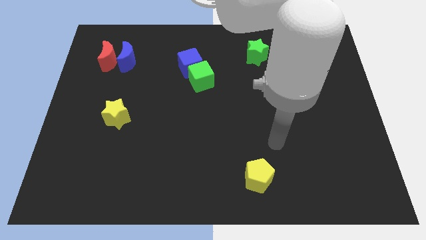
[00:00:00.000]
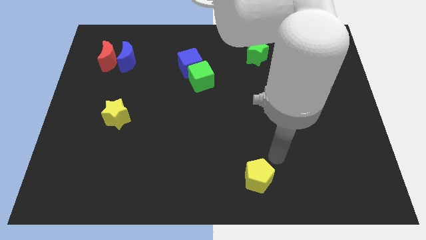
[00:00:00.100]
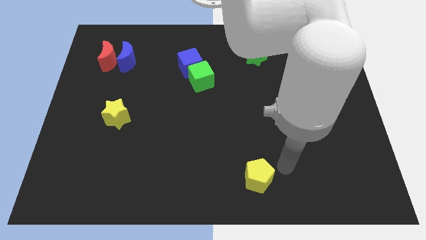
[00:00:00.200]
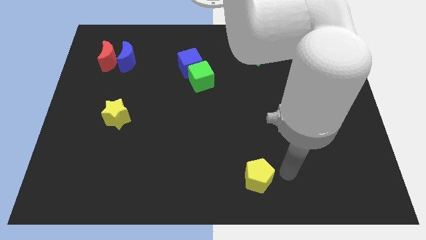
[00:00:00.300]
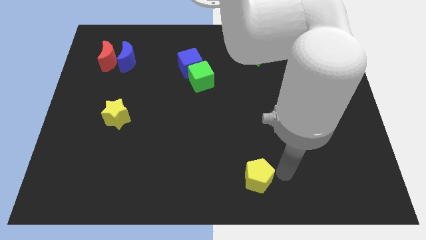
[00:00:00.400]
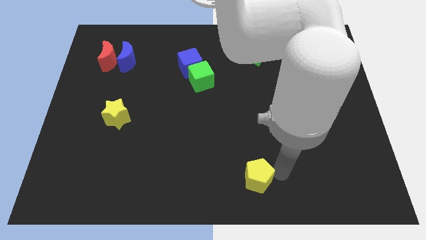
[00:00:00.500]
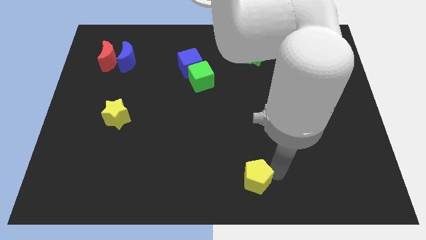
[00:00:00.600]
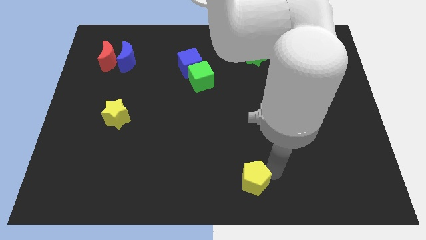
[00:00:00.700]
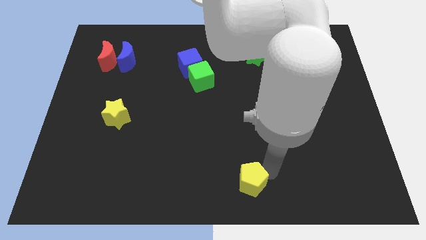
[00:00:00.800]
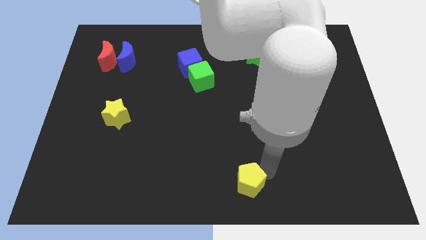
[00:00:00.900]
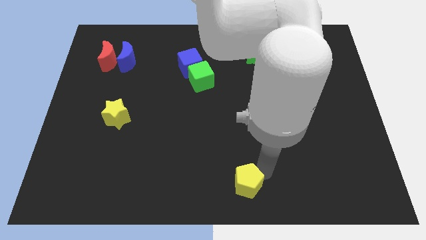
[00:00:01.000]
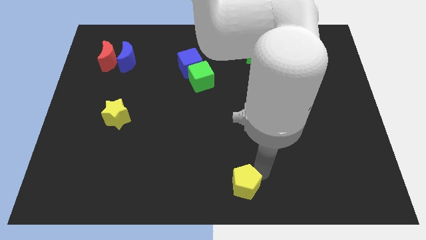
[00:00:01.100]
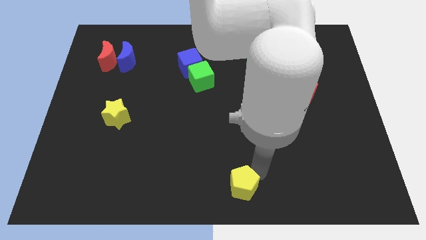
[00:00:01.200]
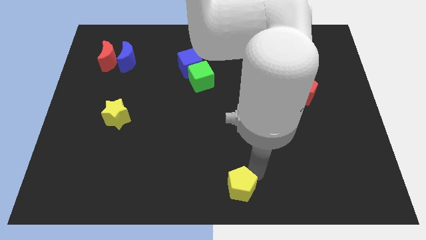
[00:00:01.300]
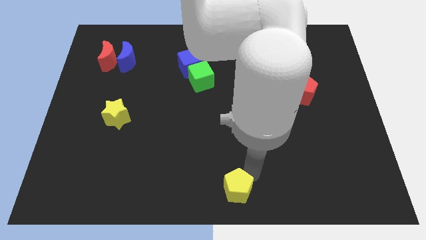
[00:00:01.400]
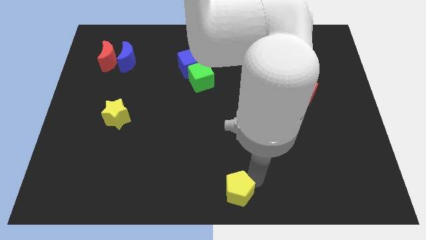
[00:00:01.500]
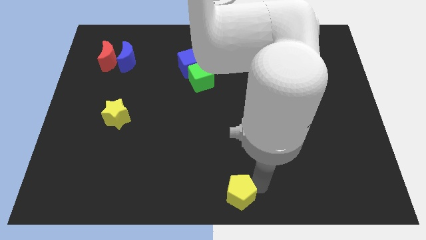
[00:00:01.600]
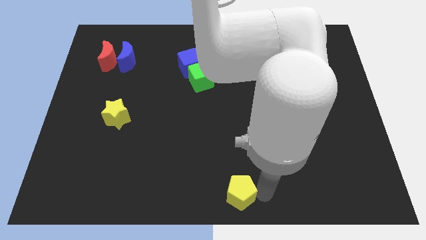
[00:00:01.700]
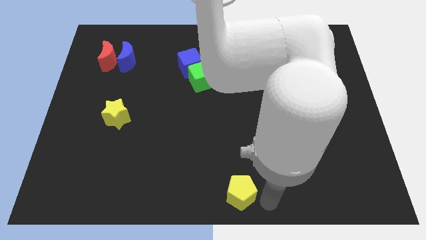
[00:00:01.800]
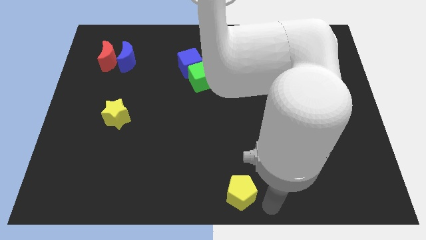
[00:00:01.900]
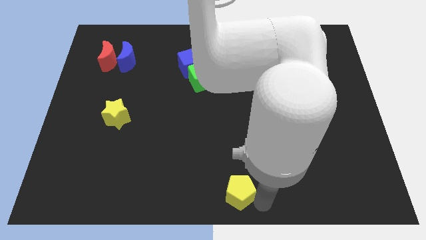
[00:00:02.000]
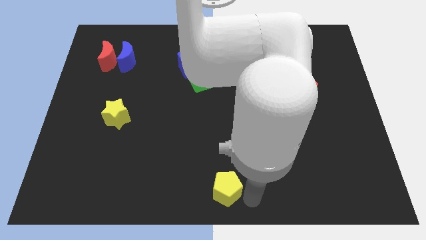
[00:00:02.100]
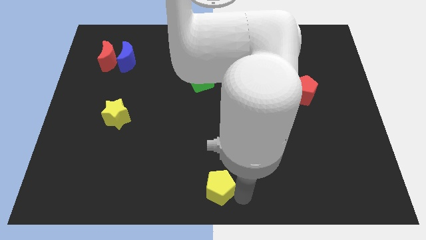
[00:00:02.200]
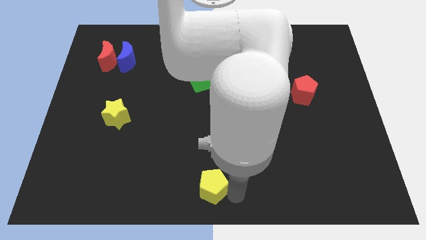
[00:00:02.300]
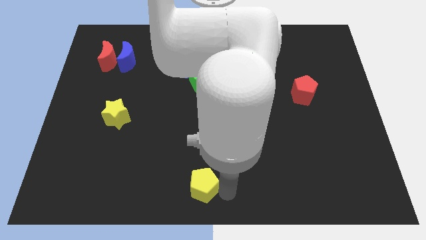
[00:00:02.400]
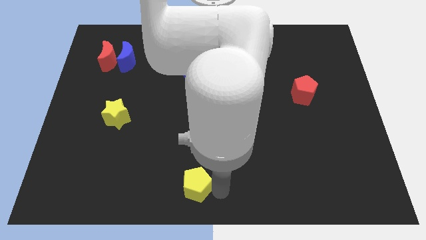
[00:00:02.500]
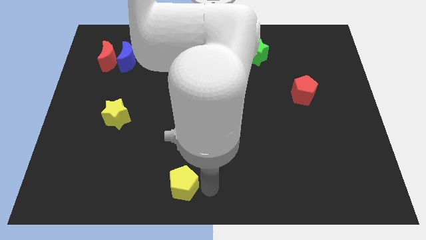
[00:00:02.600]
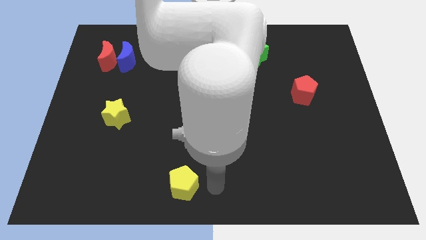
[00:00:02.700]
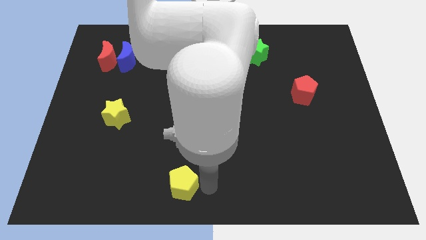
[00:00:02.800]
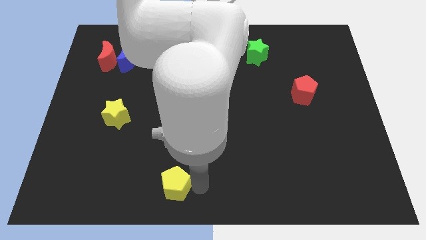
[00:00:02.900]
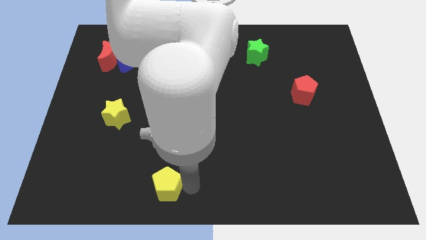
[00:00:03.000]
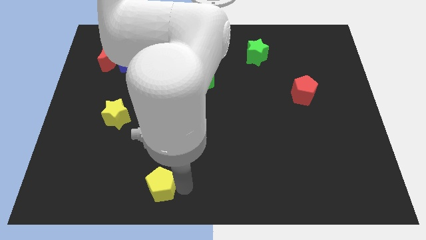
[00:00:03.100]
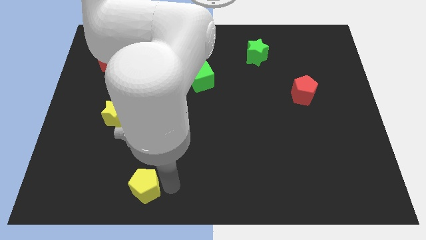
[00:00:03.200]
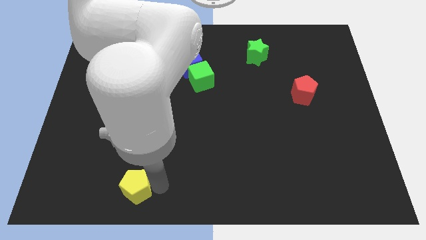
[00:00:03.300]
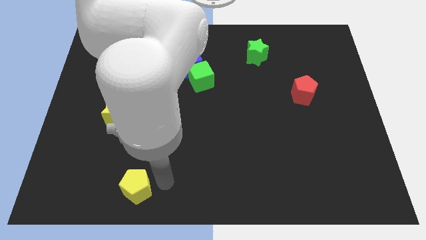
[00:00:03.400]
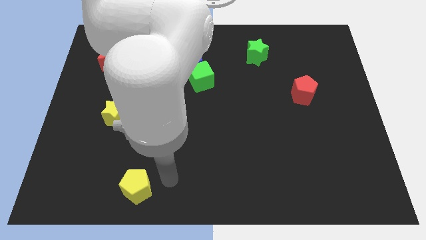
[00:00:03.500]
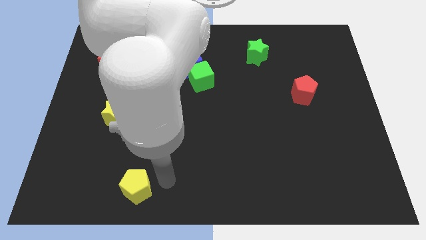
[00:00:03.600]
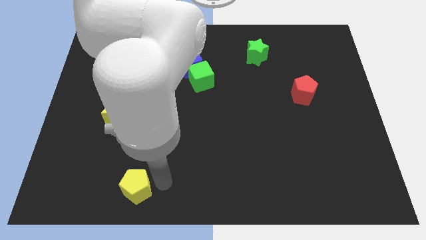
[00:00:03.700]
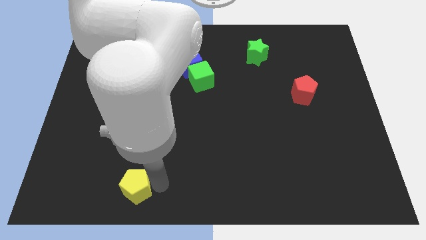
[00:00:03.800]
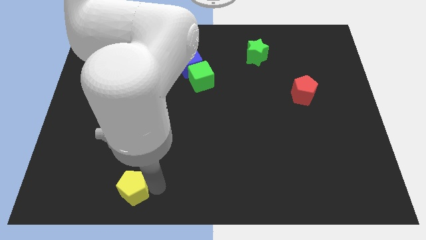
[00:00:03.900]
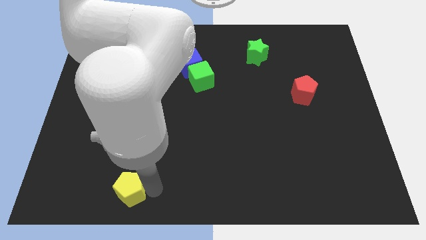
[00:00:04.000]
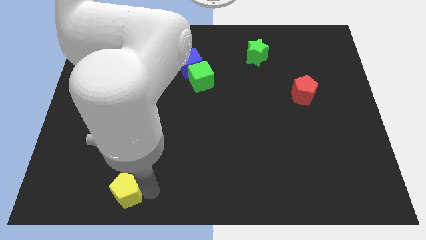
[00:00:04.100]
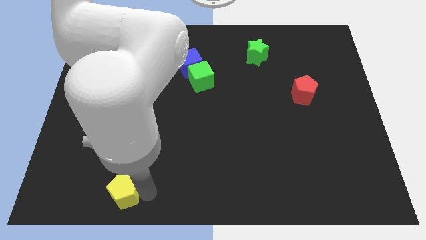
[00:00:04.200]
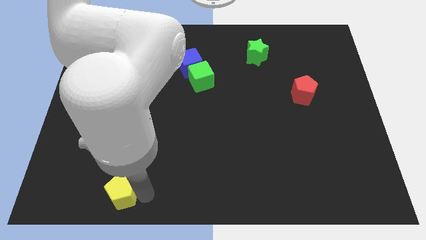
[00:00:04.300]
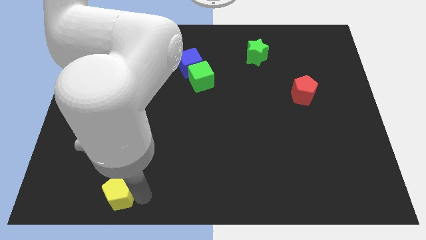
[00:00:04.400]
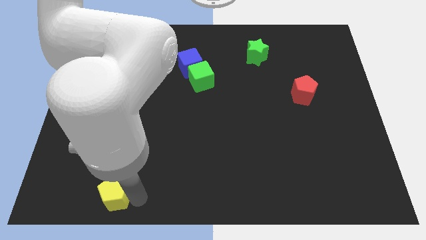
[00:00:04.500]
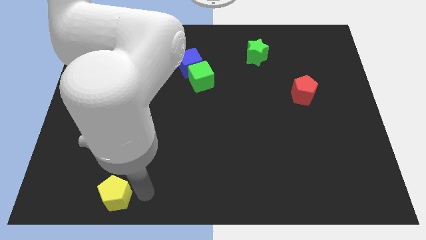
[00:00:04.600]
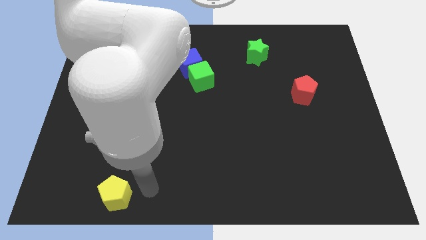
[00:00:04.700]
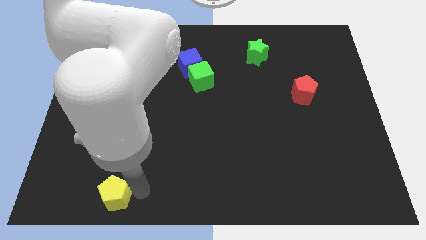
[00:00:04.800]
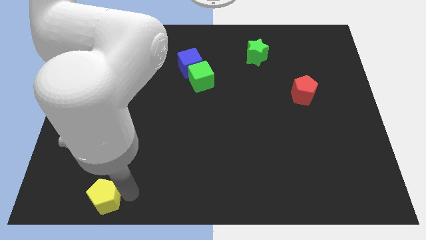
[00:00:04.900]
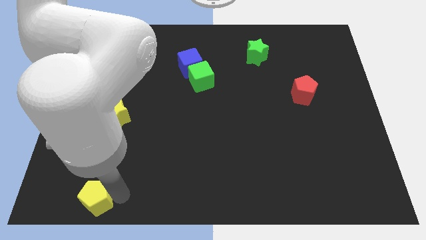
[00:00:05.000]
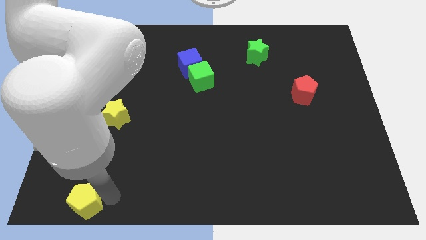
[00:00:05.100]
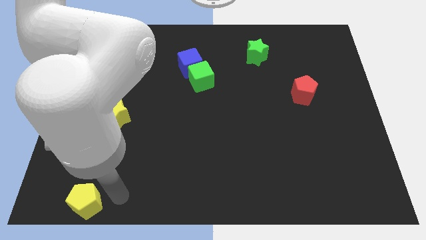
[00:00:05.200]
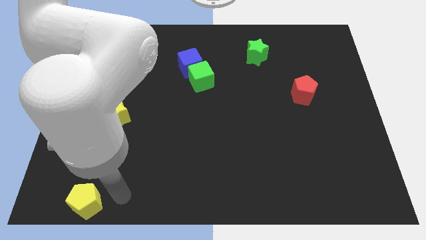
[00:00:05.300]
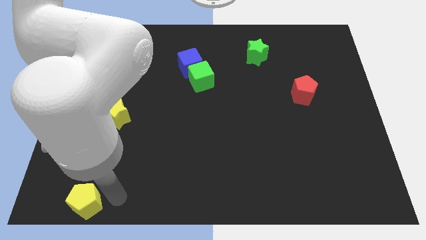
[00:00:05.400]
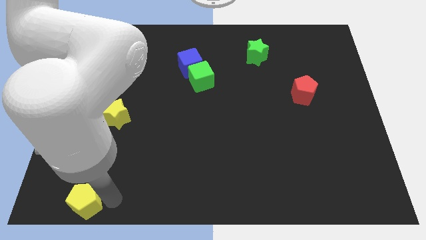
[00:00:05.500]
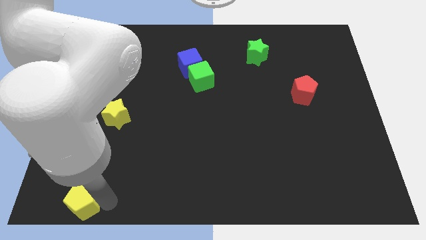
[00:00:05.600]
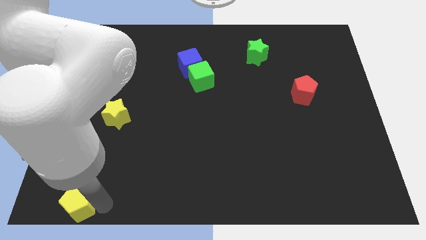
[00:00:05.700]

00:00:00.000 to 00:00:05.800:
push the yellow pentagon to the bottom left of the board

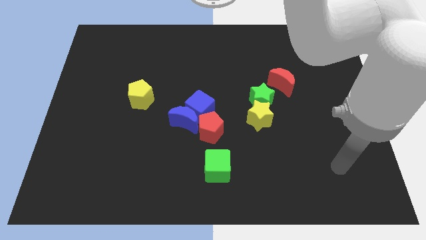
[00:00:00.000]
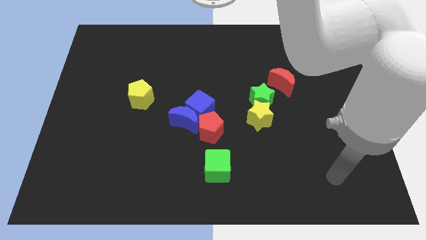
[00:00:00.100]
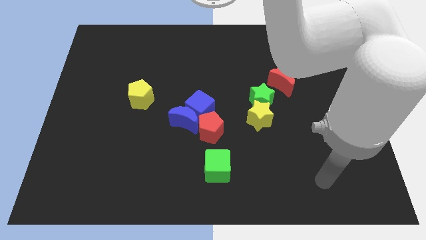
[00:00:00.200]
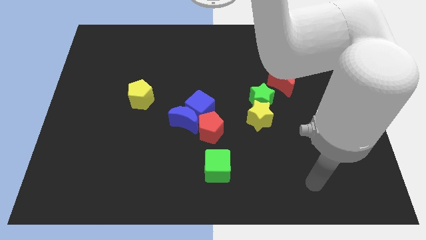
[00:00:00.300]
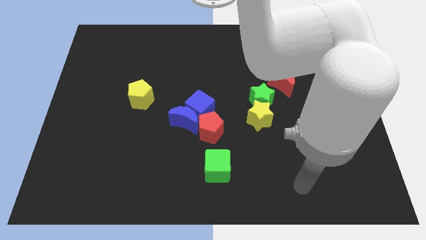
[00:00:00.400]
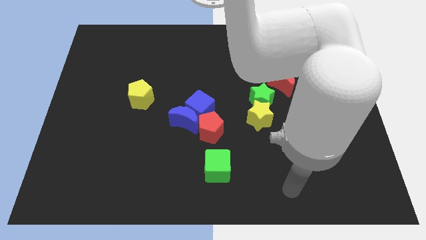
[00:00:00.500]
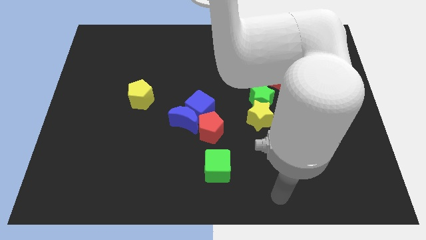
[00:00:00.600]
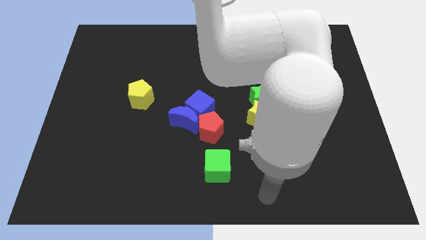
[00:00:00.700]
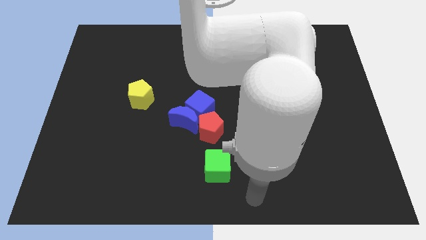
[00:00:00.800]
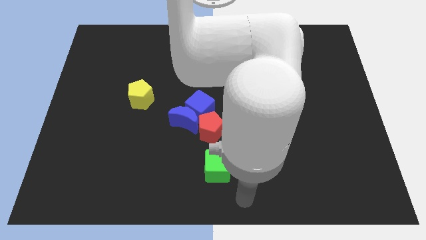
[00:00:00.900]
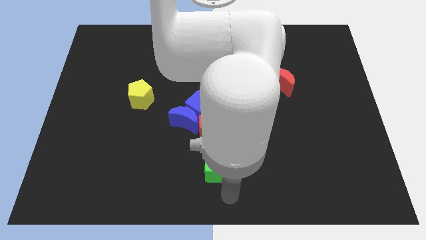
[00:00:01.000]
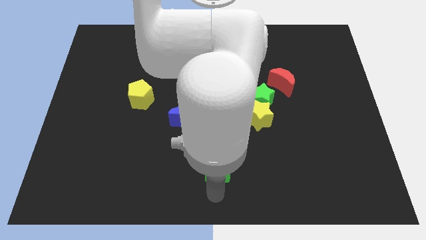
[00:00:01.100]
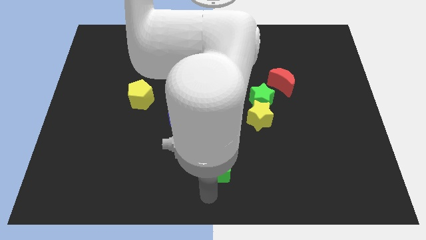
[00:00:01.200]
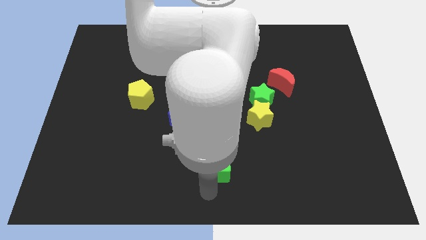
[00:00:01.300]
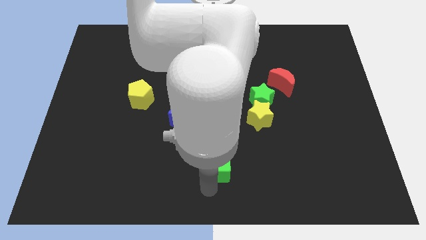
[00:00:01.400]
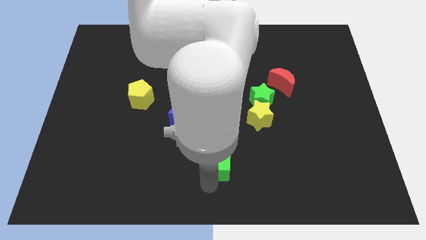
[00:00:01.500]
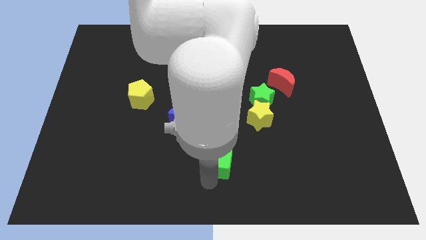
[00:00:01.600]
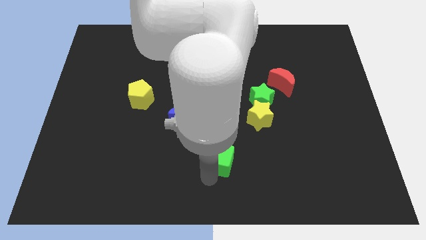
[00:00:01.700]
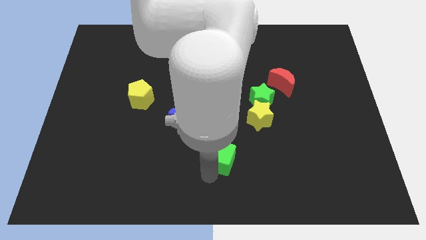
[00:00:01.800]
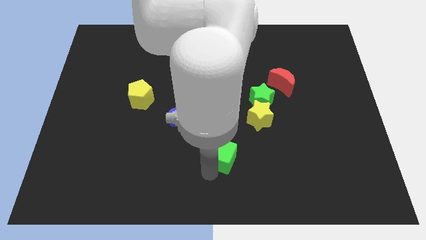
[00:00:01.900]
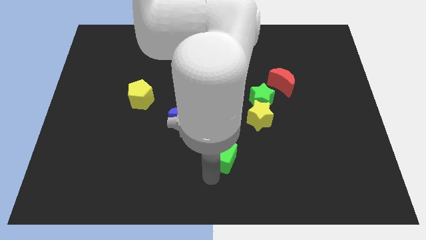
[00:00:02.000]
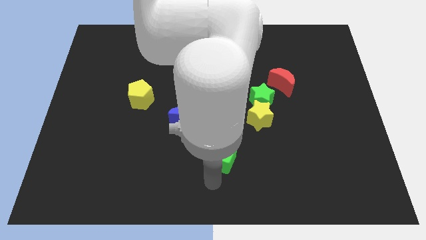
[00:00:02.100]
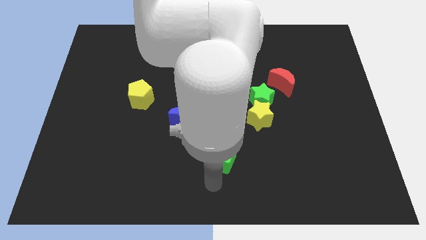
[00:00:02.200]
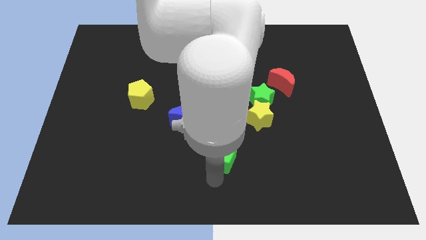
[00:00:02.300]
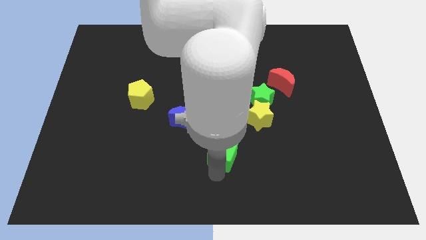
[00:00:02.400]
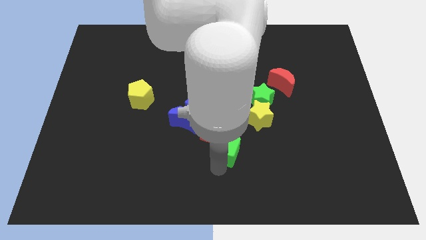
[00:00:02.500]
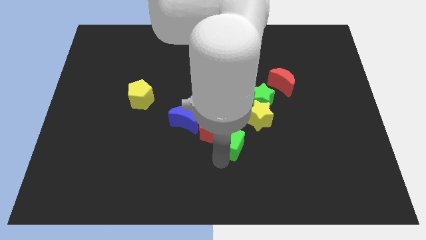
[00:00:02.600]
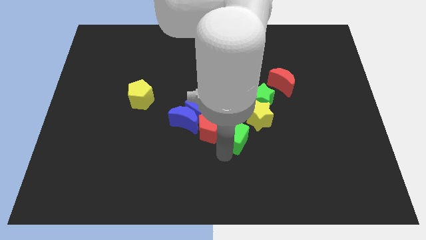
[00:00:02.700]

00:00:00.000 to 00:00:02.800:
put the green cube to the center of the board
